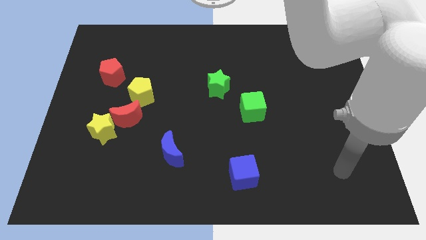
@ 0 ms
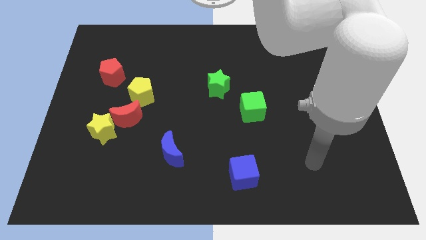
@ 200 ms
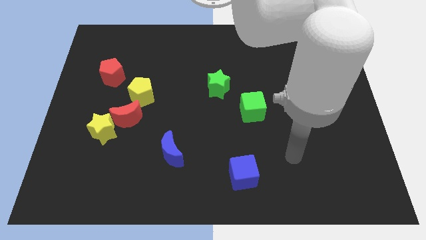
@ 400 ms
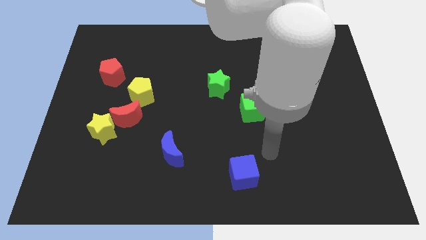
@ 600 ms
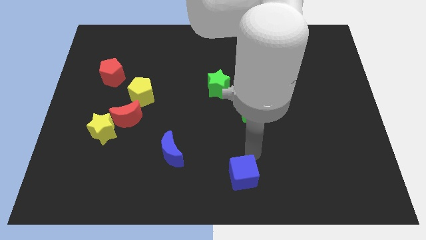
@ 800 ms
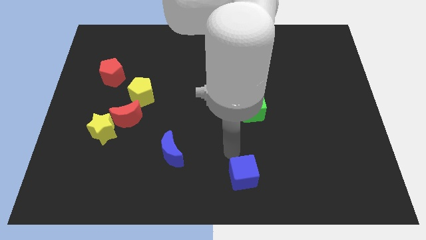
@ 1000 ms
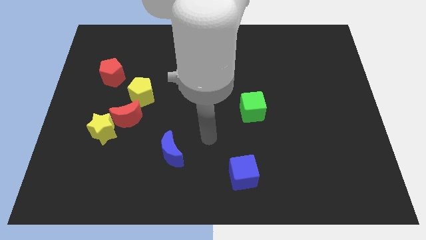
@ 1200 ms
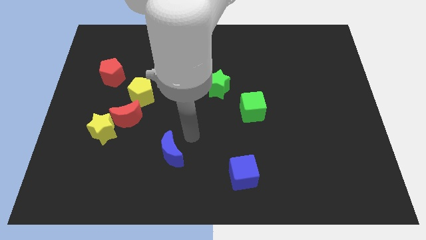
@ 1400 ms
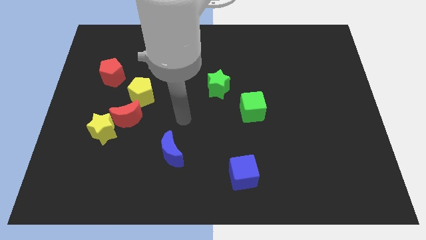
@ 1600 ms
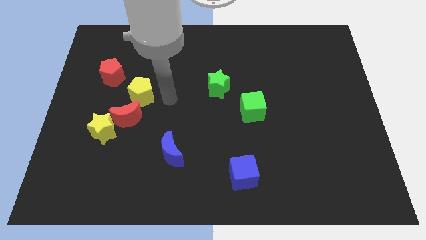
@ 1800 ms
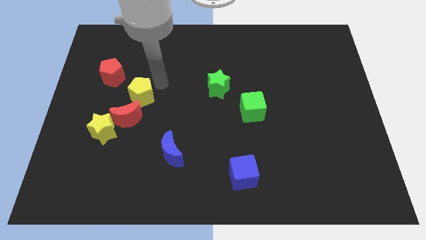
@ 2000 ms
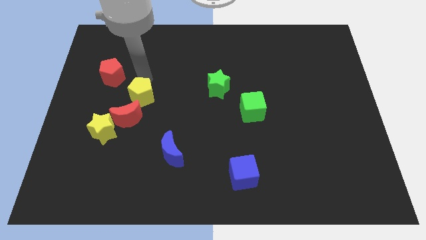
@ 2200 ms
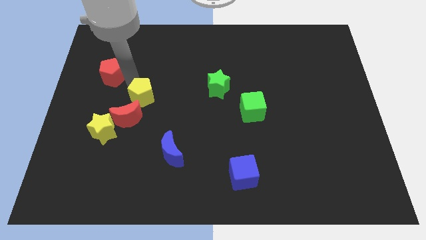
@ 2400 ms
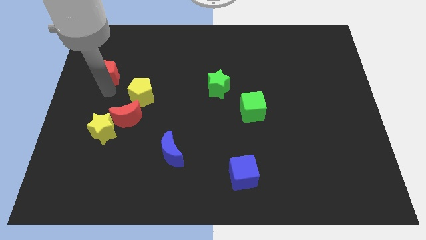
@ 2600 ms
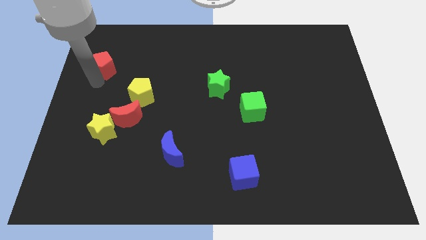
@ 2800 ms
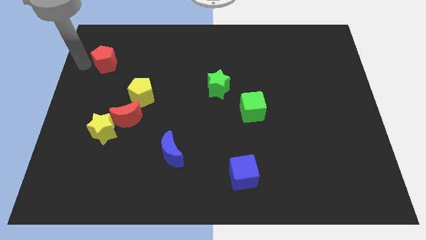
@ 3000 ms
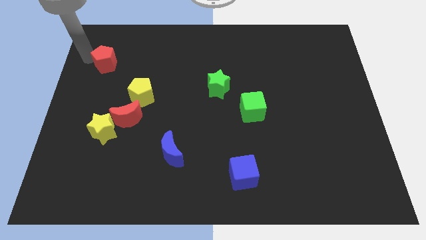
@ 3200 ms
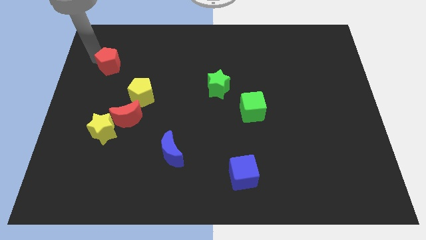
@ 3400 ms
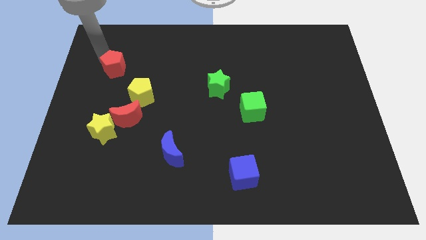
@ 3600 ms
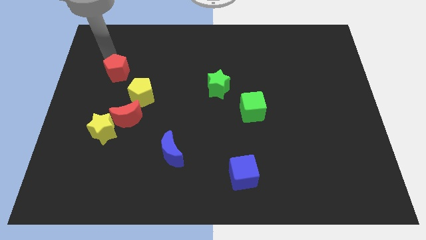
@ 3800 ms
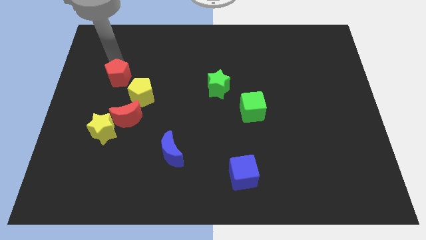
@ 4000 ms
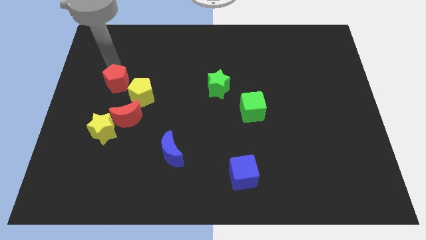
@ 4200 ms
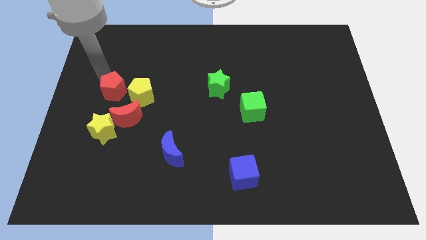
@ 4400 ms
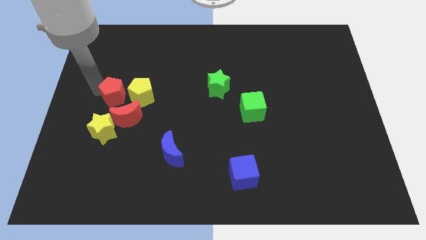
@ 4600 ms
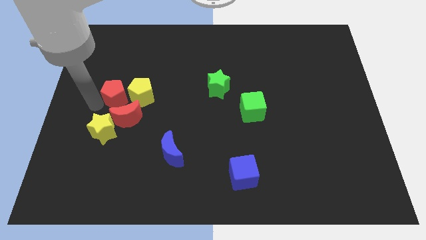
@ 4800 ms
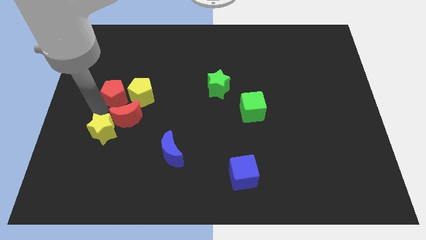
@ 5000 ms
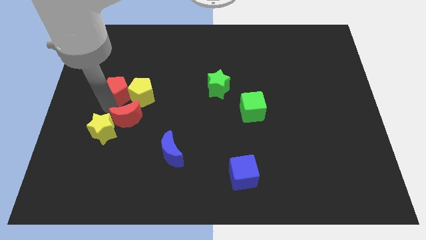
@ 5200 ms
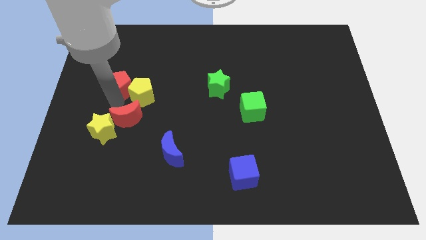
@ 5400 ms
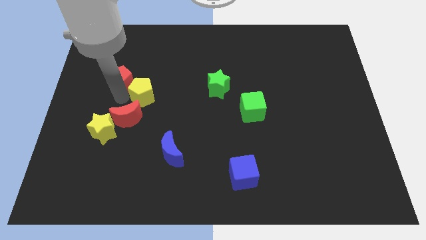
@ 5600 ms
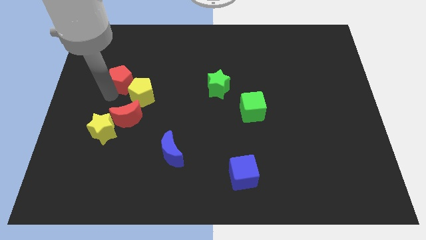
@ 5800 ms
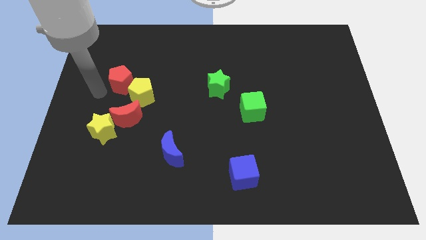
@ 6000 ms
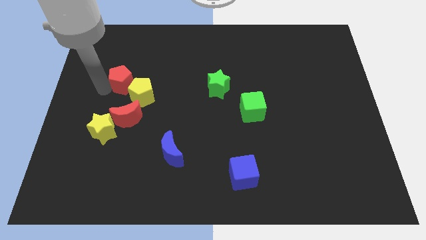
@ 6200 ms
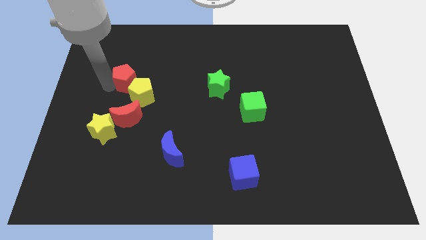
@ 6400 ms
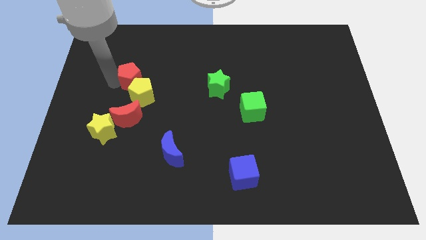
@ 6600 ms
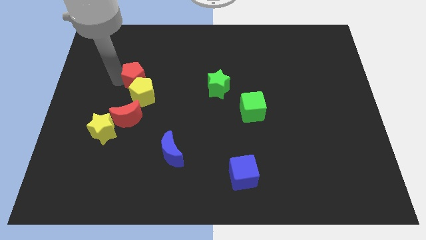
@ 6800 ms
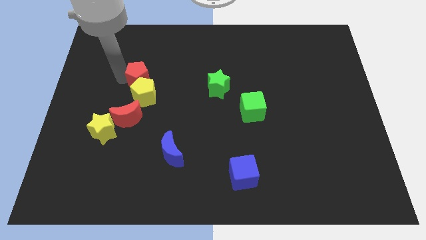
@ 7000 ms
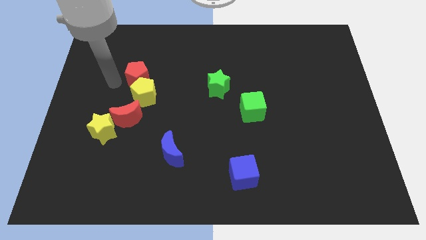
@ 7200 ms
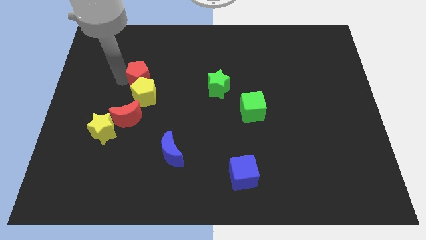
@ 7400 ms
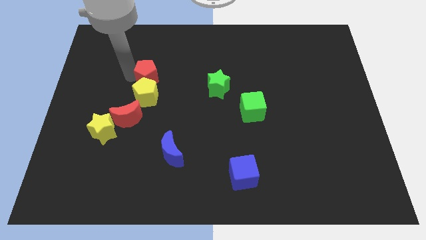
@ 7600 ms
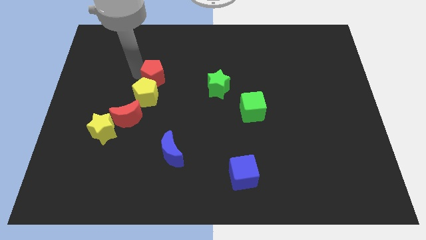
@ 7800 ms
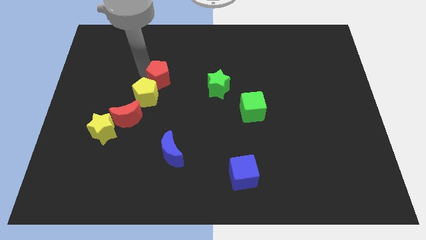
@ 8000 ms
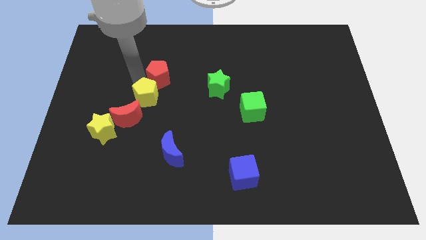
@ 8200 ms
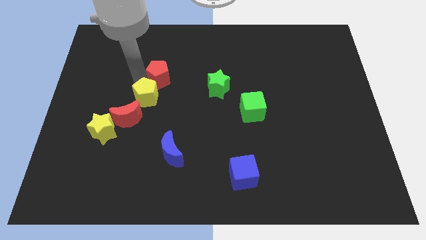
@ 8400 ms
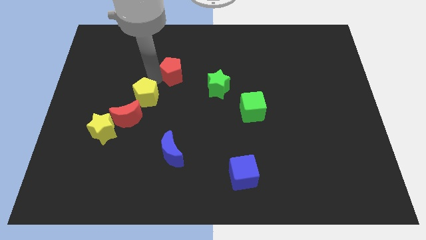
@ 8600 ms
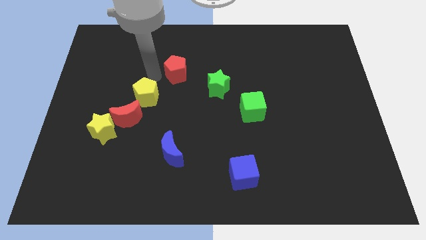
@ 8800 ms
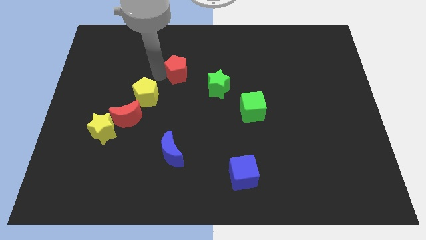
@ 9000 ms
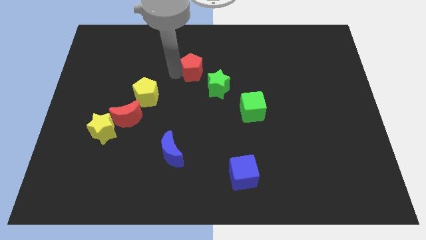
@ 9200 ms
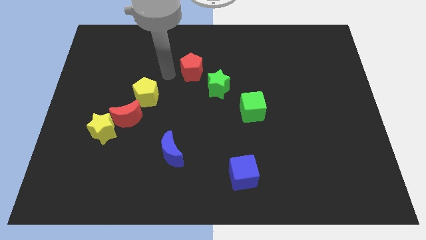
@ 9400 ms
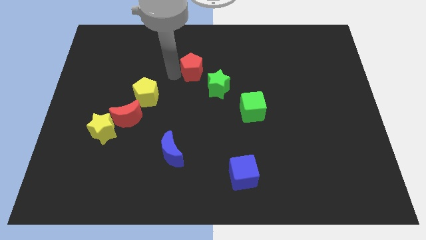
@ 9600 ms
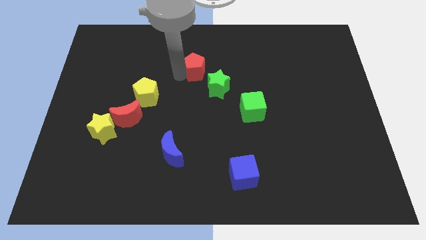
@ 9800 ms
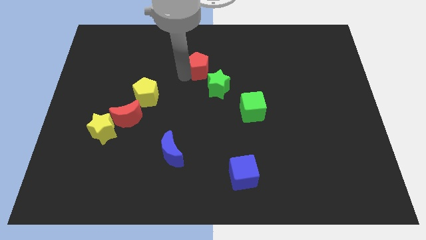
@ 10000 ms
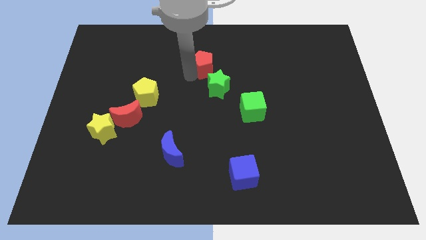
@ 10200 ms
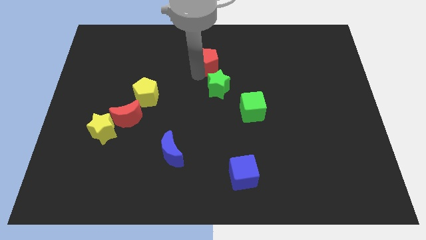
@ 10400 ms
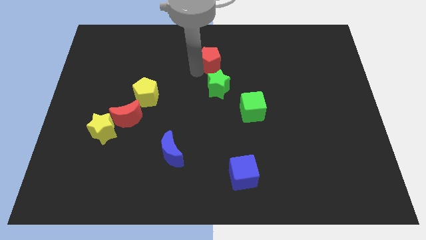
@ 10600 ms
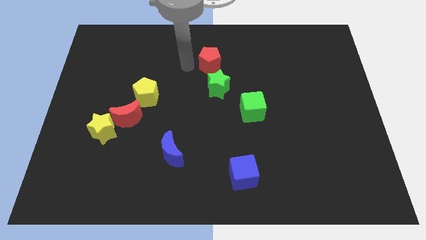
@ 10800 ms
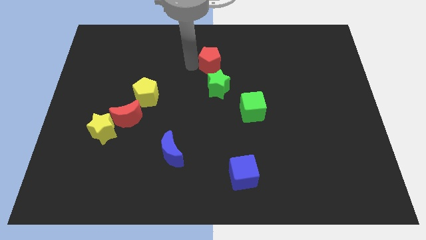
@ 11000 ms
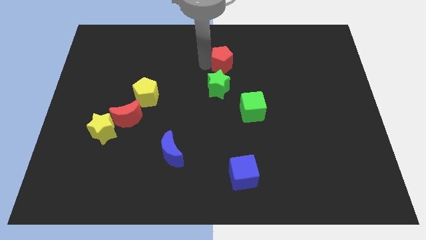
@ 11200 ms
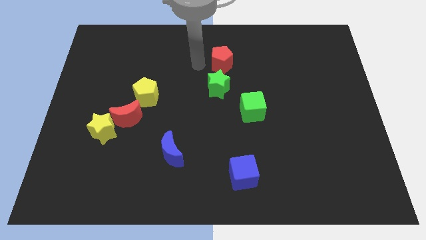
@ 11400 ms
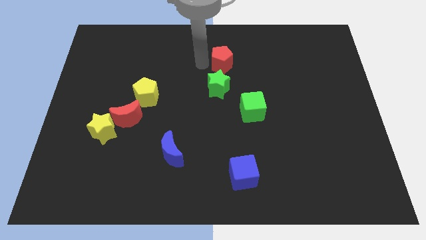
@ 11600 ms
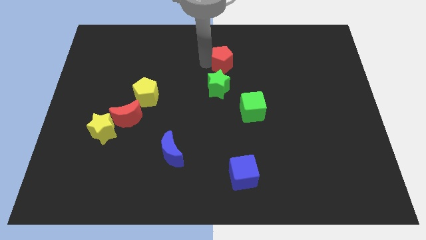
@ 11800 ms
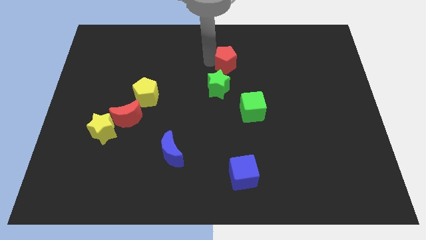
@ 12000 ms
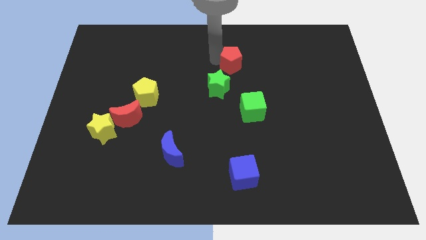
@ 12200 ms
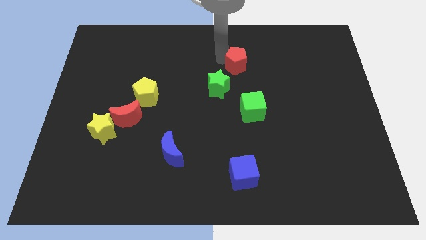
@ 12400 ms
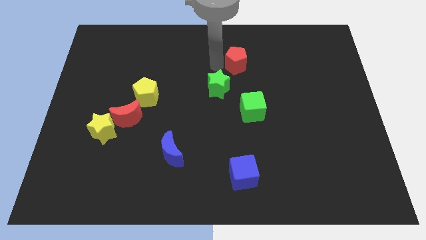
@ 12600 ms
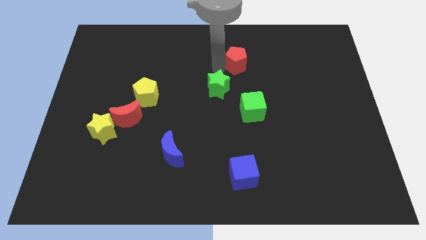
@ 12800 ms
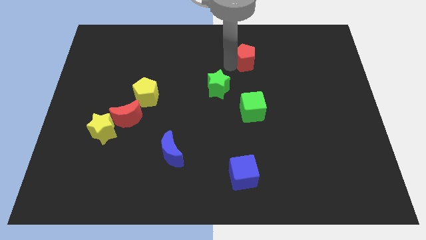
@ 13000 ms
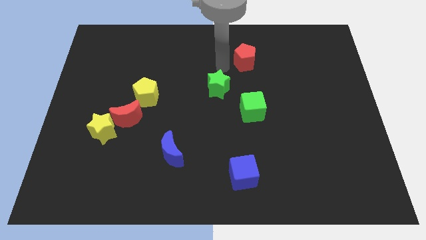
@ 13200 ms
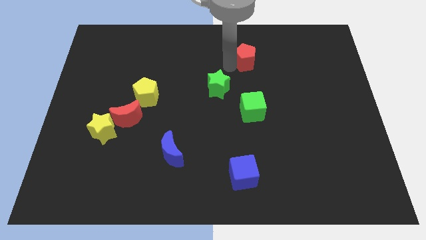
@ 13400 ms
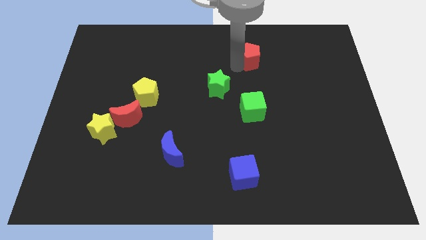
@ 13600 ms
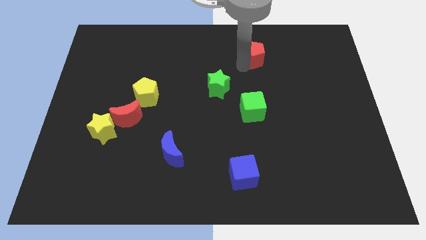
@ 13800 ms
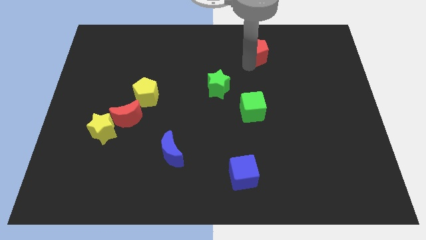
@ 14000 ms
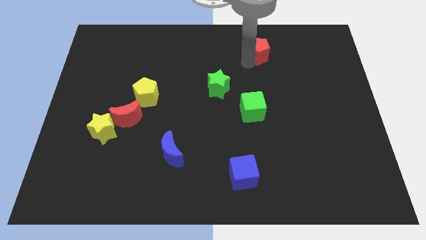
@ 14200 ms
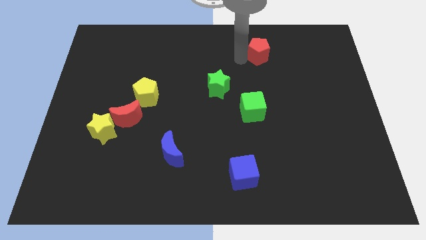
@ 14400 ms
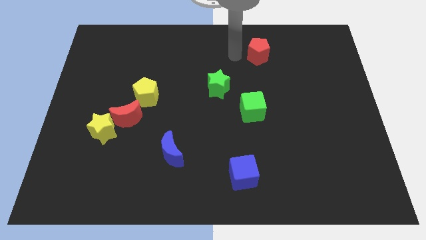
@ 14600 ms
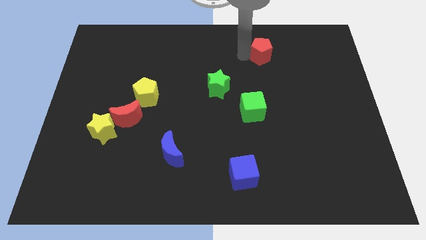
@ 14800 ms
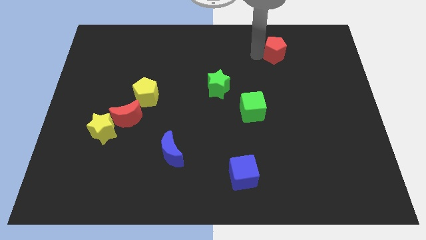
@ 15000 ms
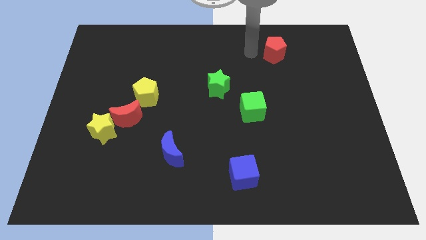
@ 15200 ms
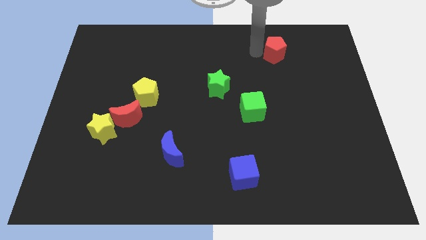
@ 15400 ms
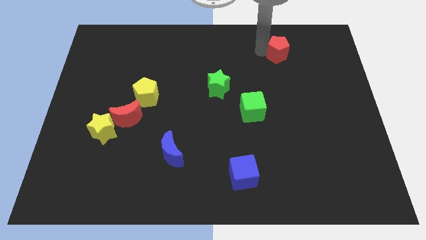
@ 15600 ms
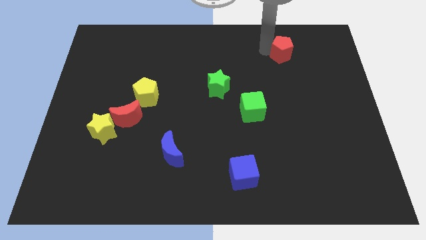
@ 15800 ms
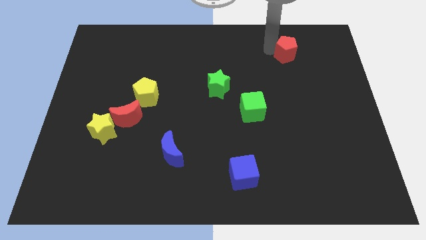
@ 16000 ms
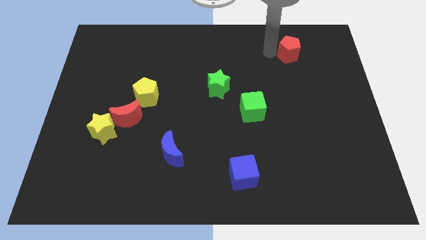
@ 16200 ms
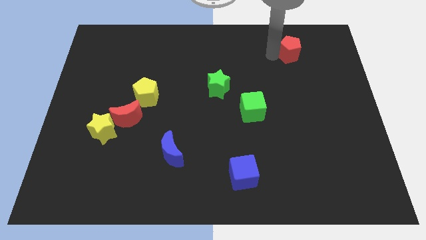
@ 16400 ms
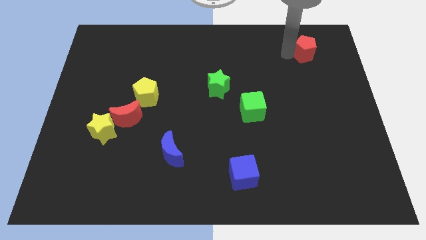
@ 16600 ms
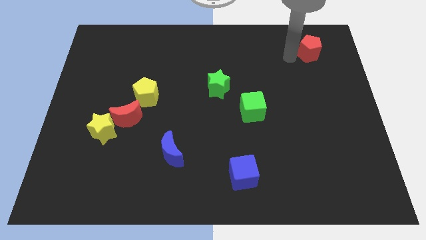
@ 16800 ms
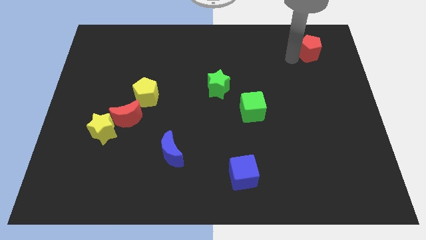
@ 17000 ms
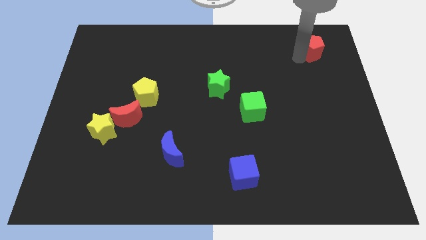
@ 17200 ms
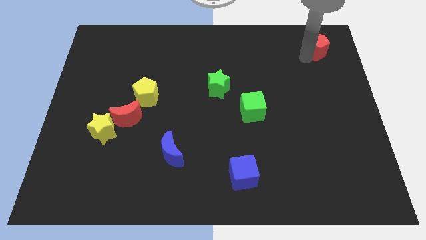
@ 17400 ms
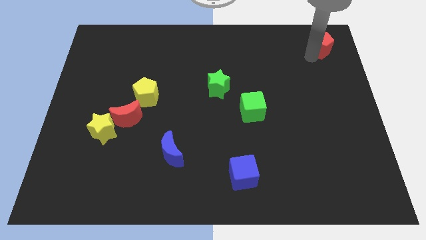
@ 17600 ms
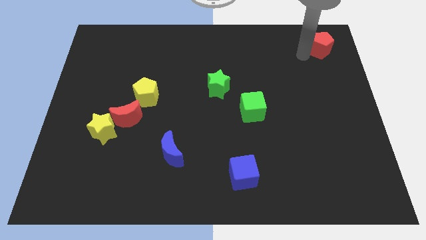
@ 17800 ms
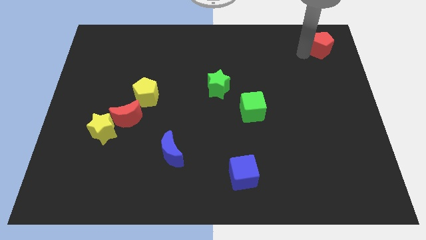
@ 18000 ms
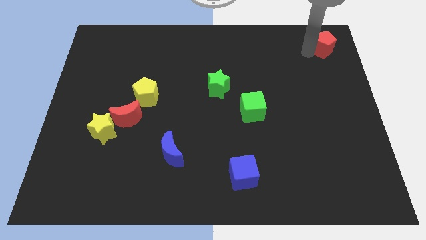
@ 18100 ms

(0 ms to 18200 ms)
slide the red pentagon to the top right of the board
